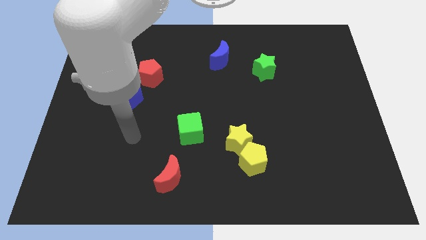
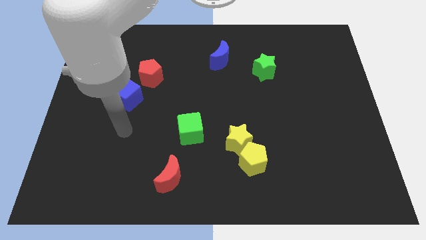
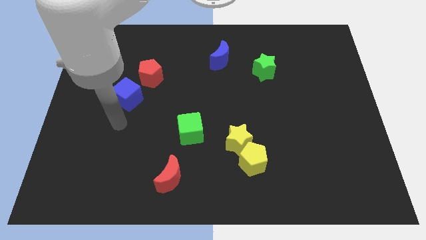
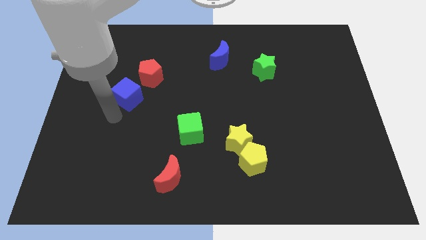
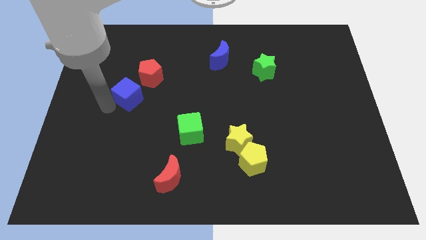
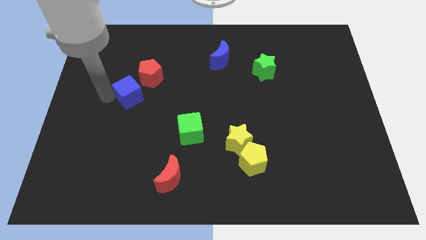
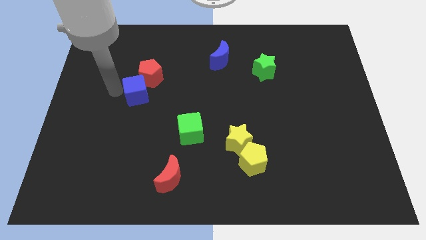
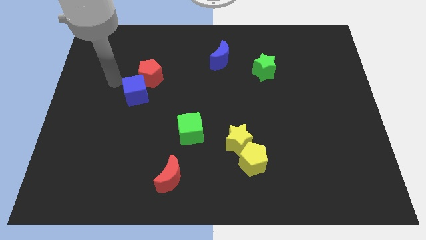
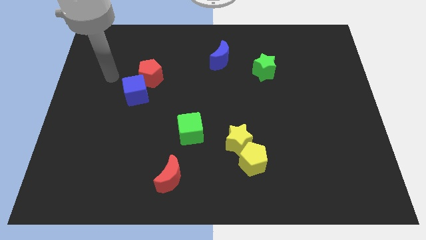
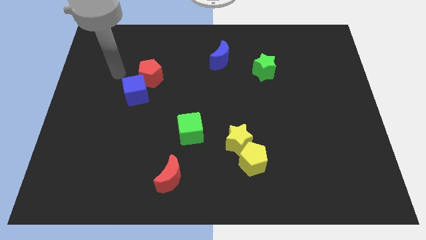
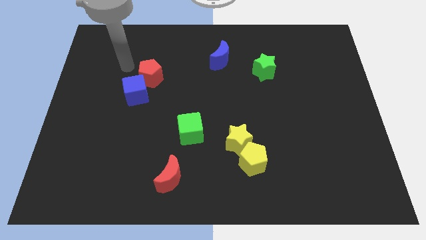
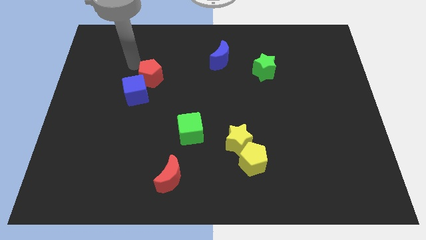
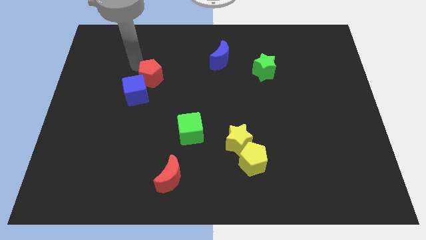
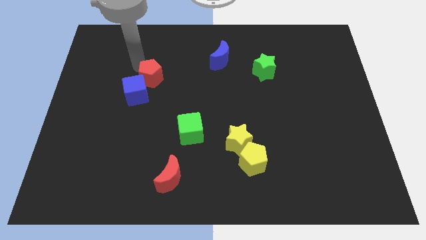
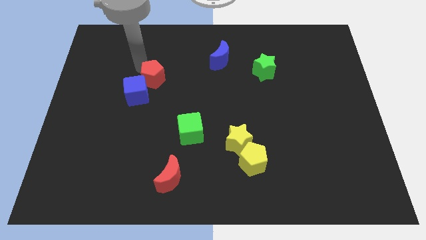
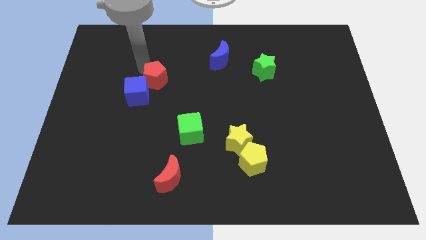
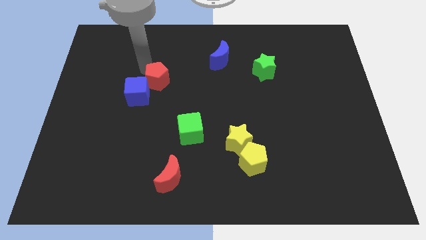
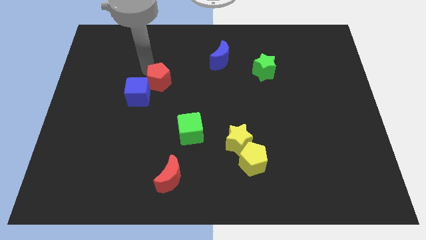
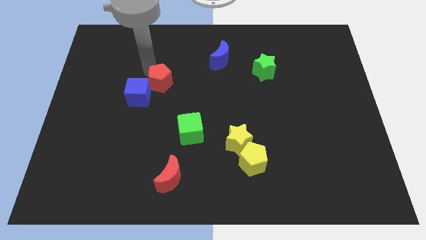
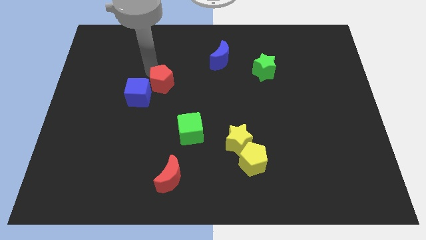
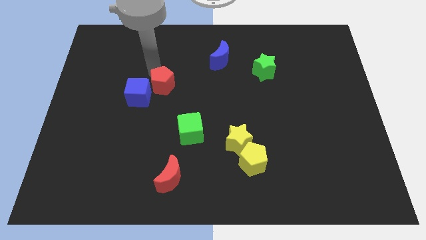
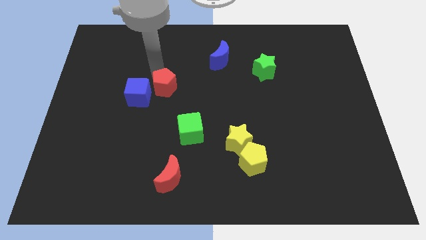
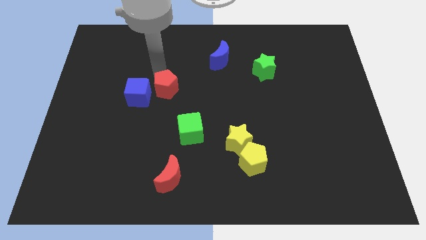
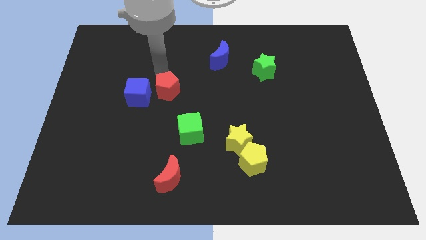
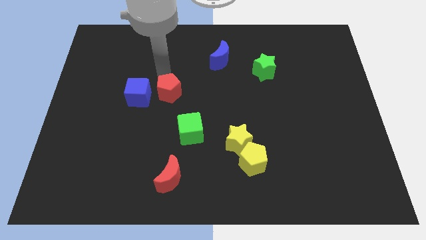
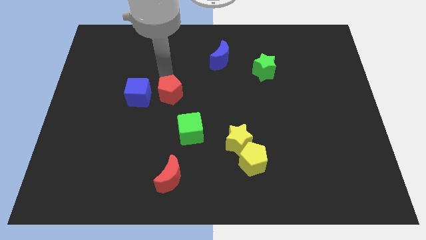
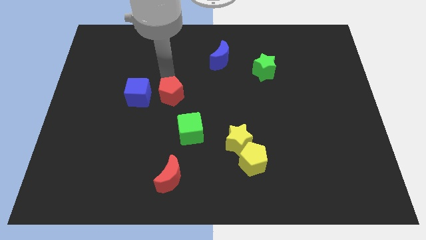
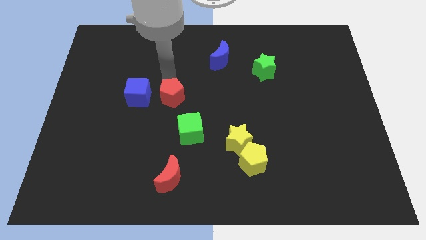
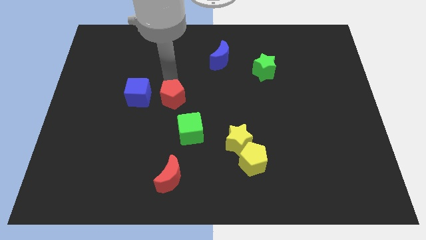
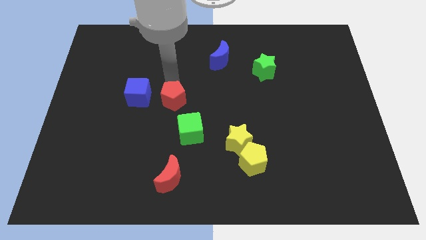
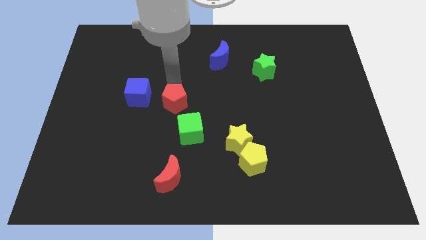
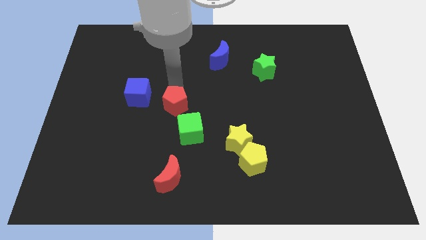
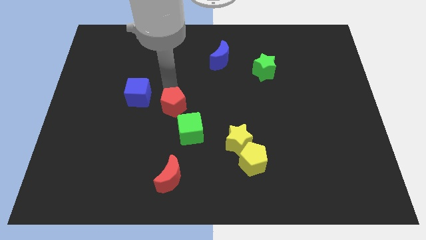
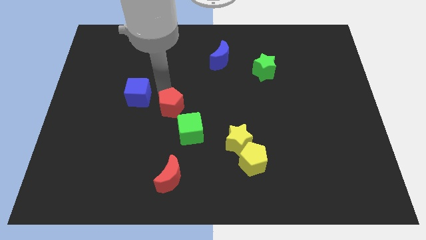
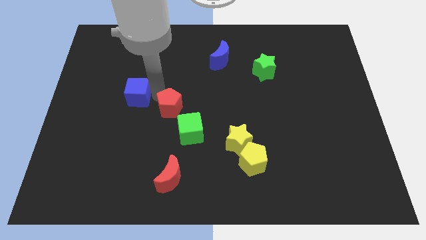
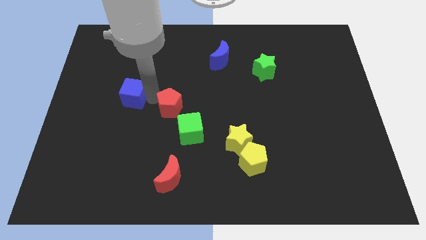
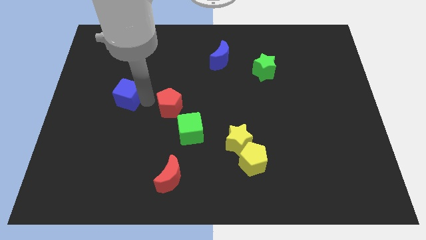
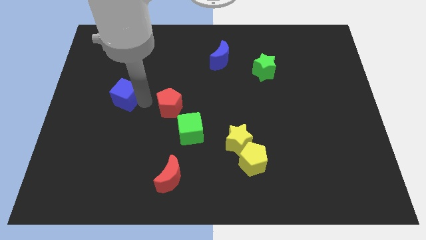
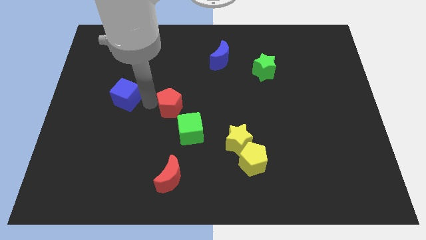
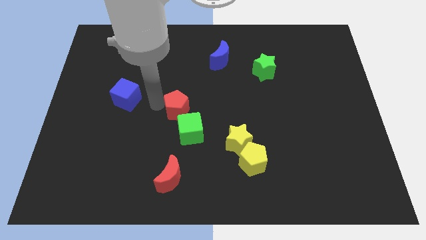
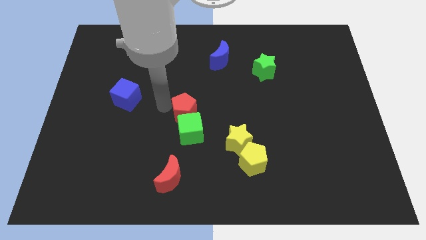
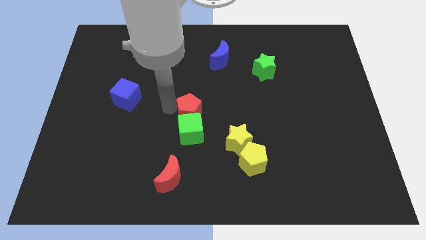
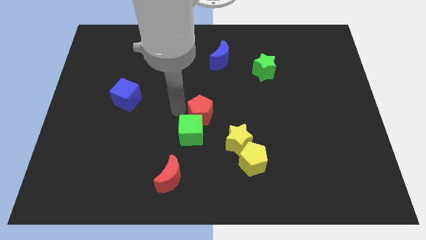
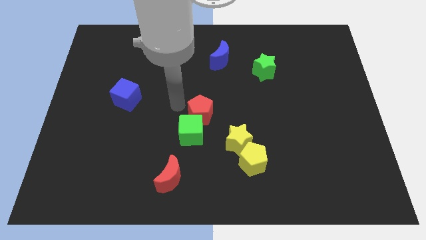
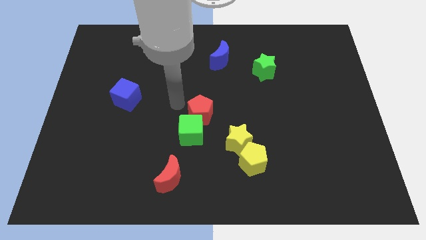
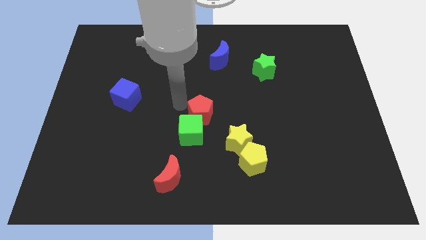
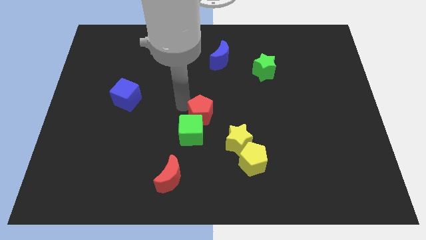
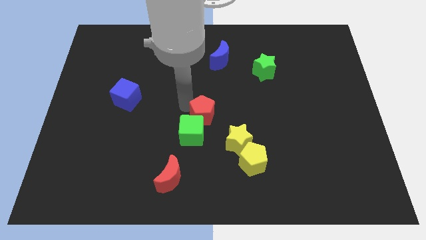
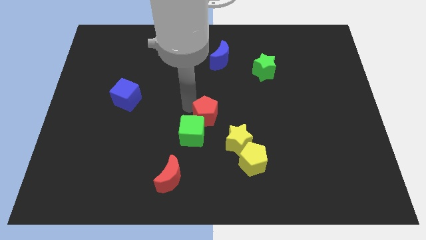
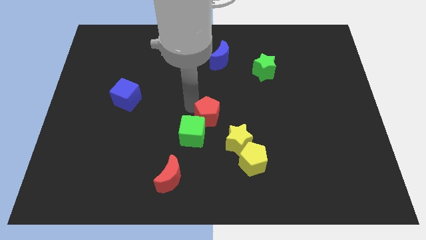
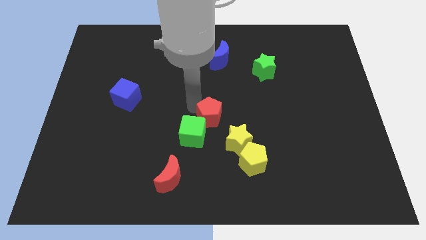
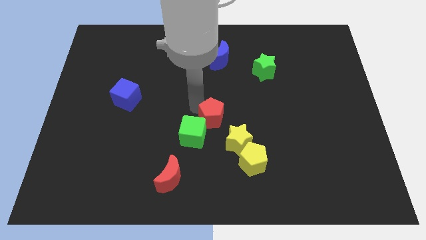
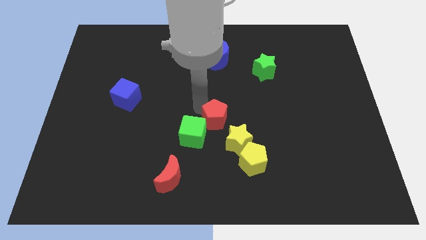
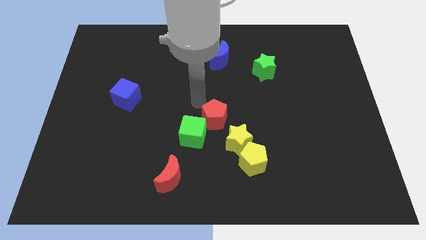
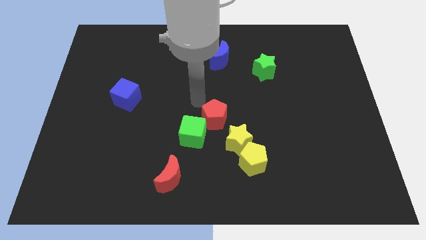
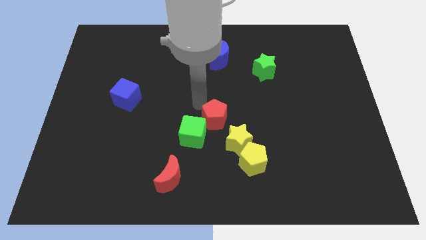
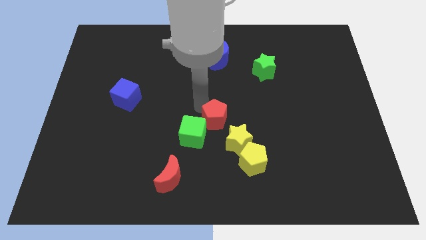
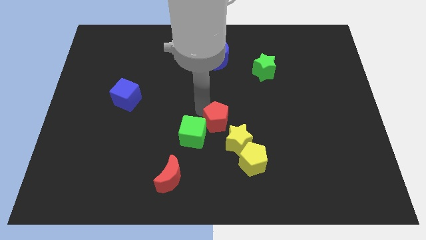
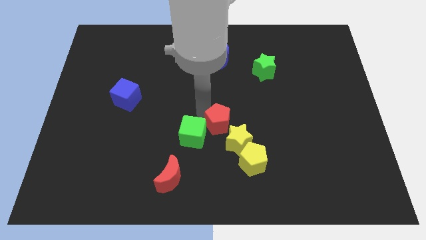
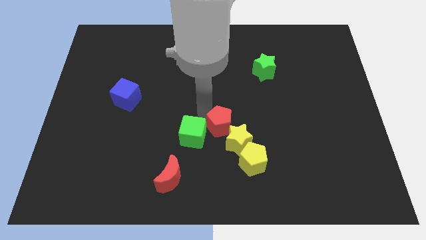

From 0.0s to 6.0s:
move the red pentagon close to the yellow star

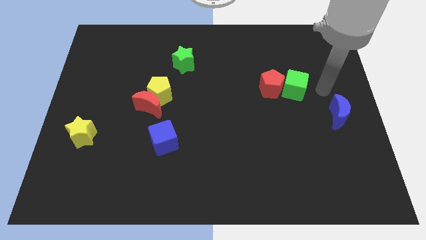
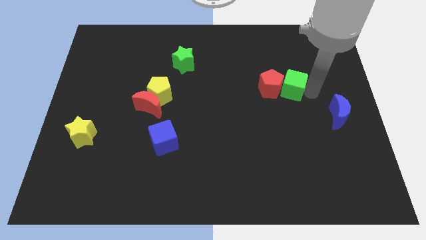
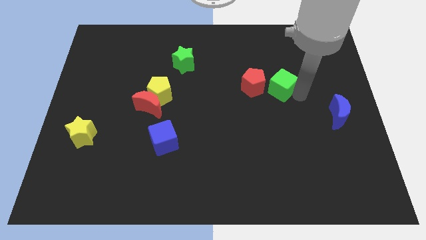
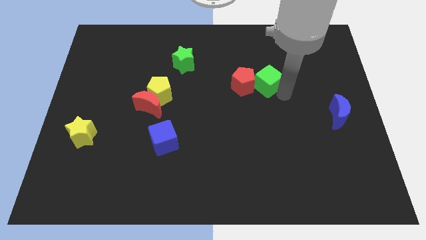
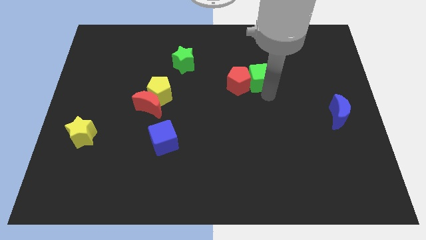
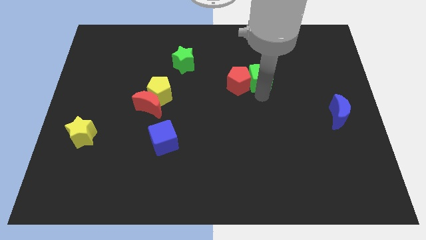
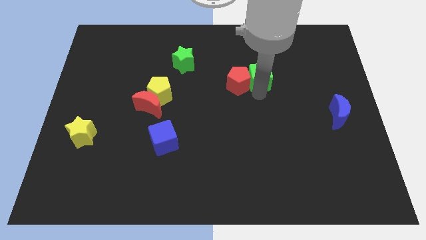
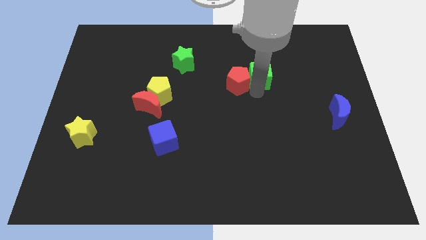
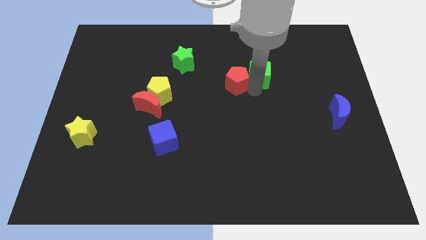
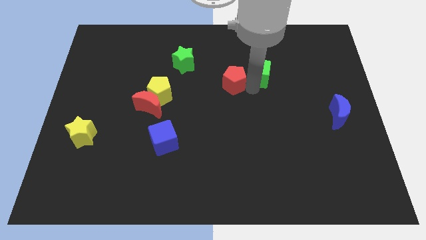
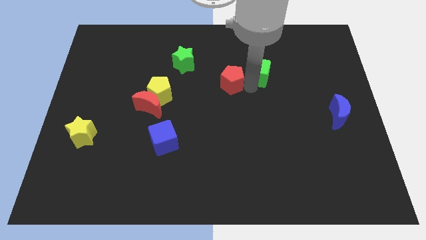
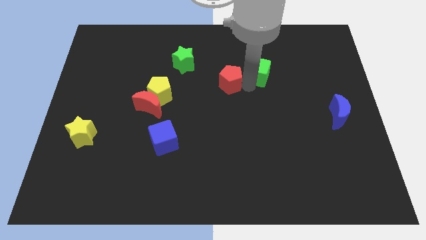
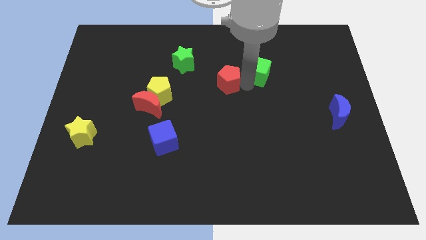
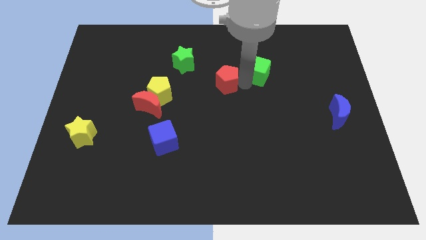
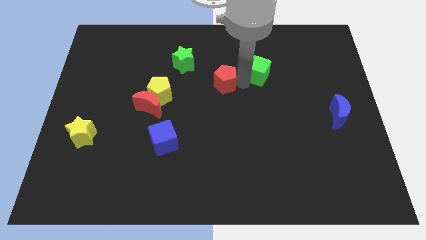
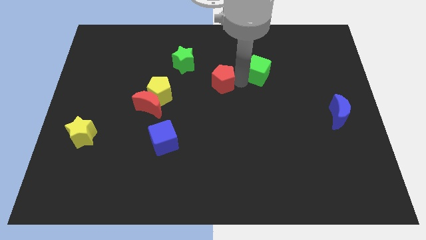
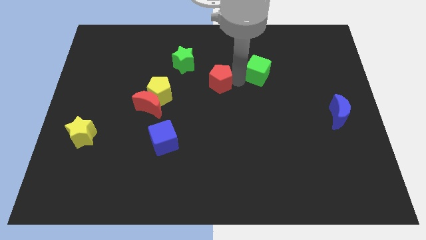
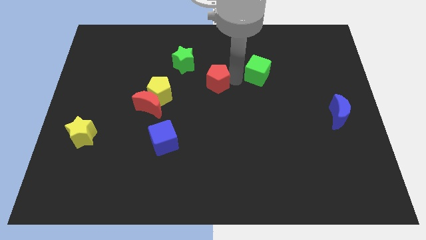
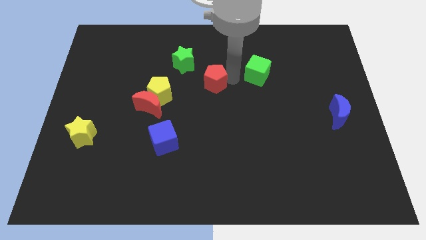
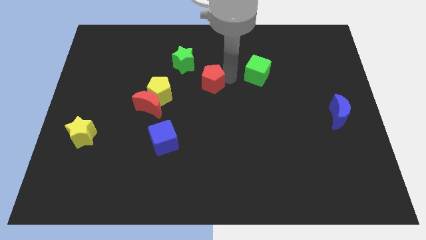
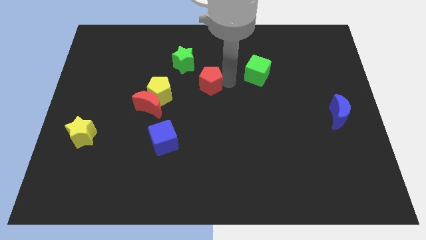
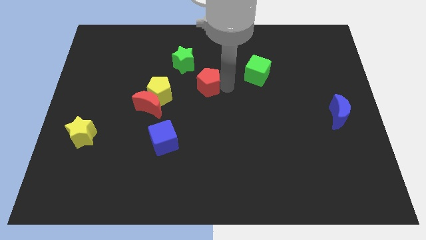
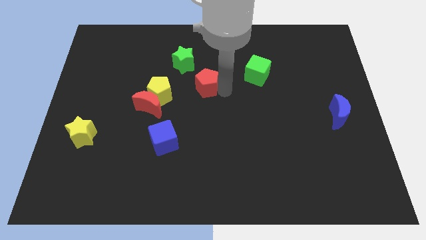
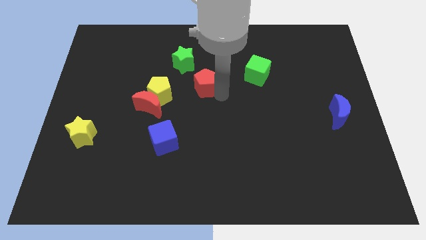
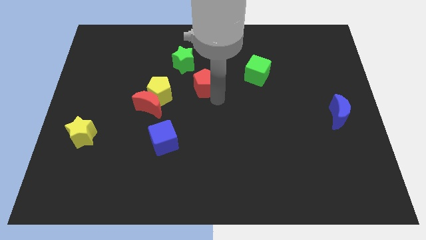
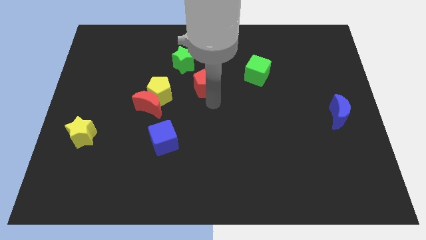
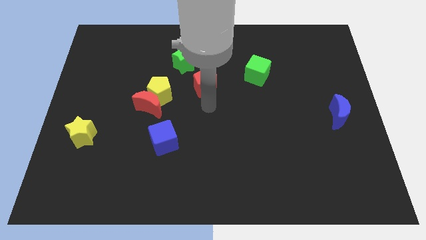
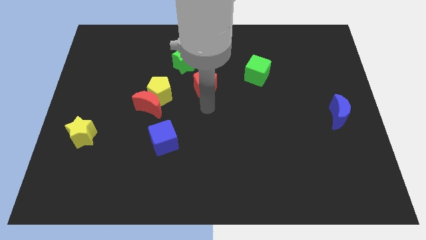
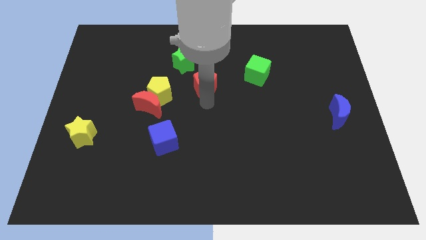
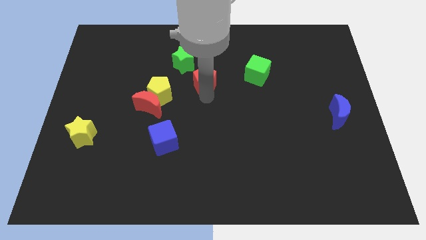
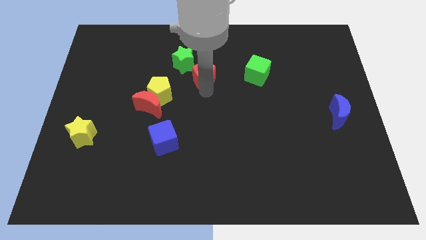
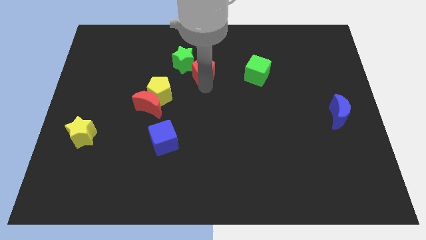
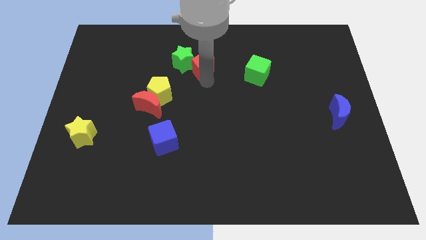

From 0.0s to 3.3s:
slide the red pentagon to the green star
